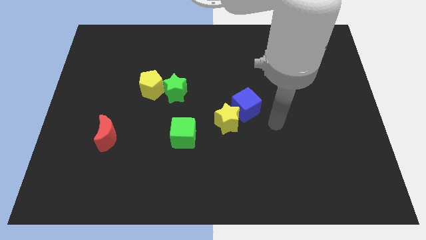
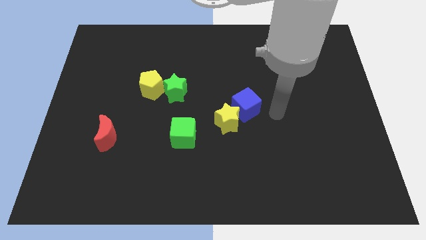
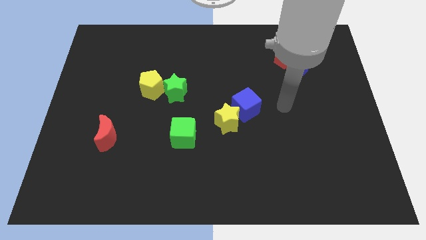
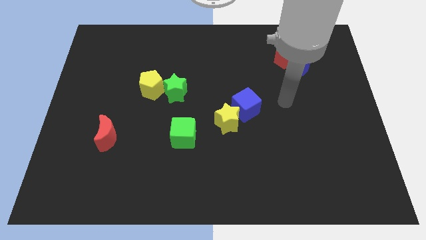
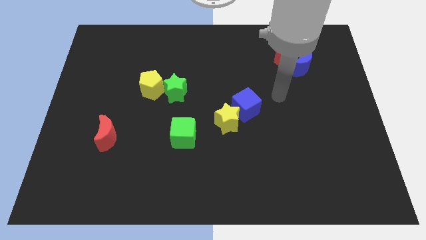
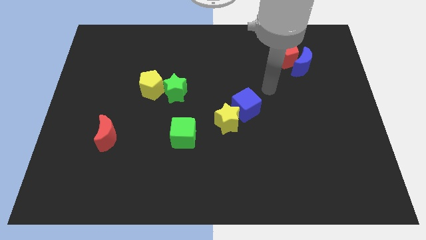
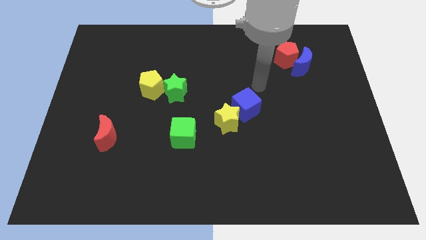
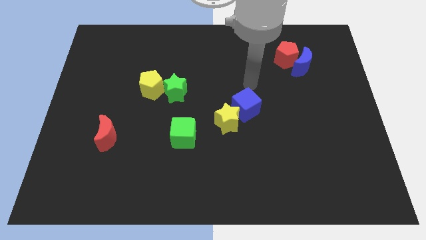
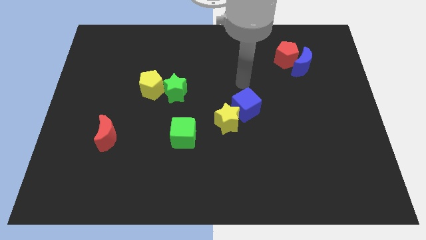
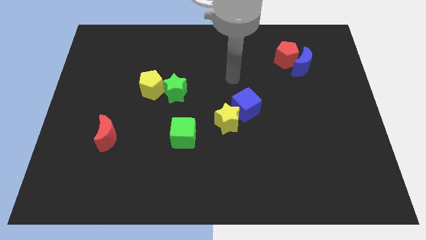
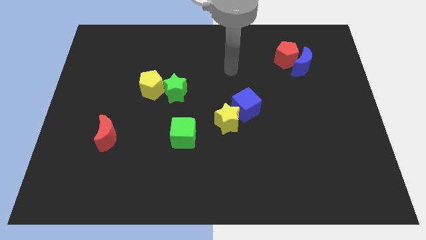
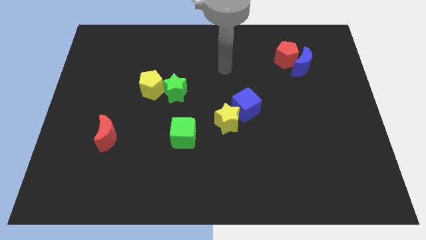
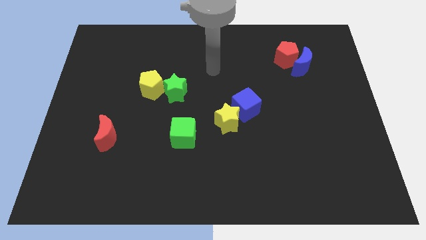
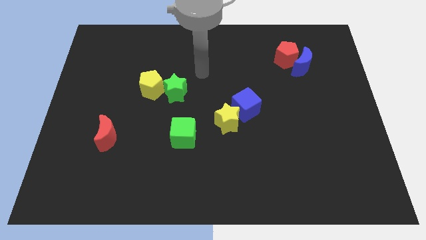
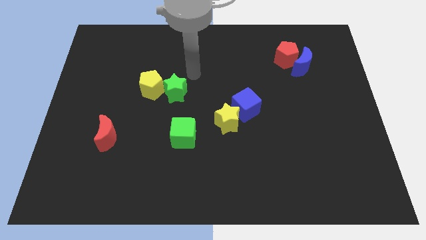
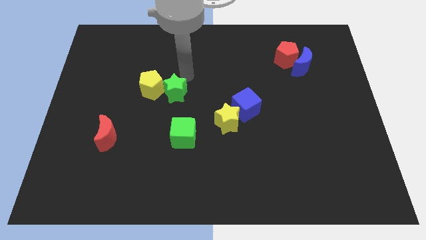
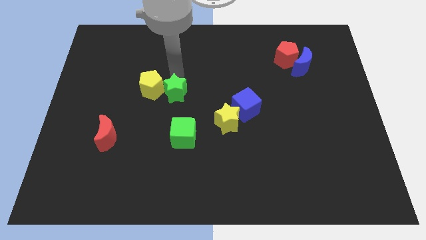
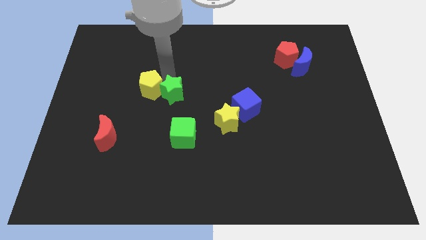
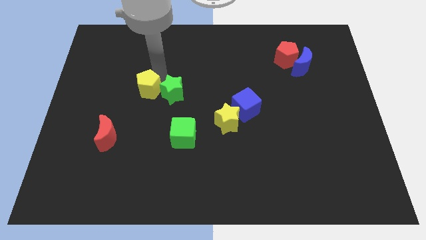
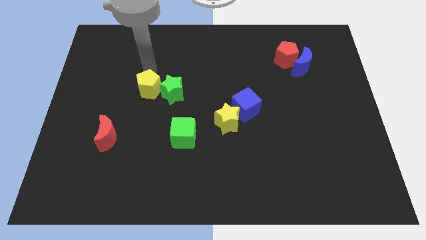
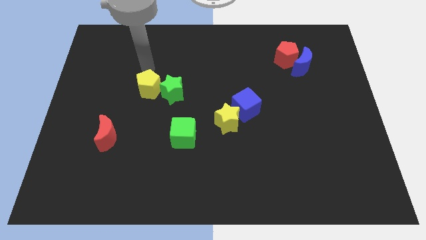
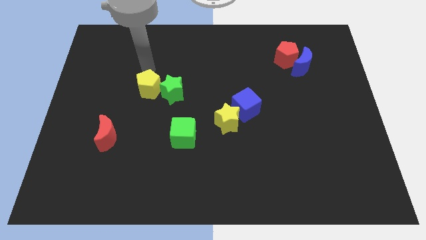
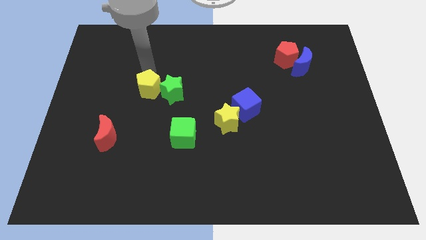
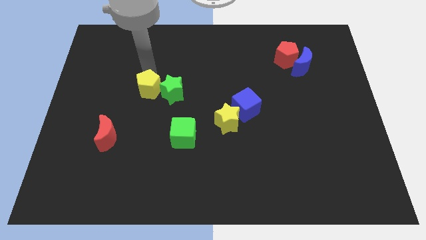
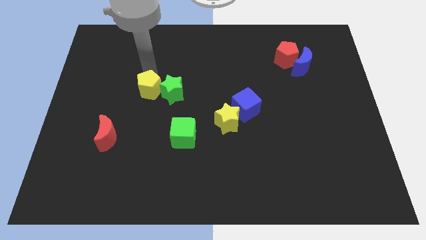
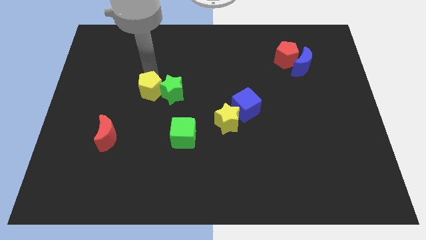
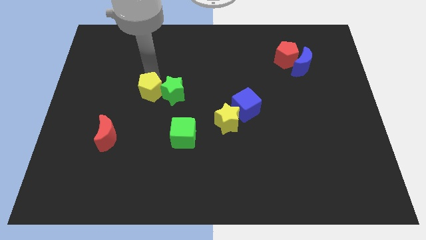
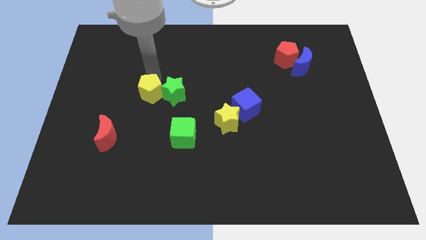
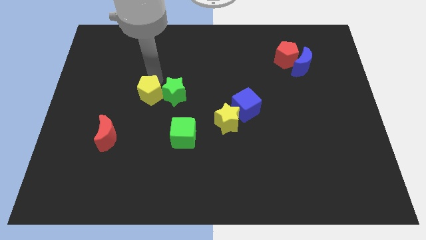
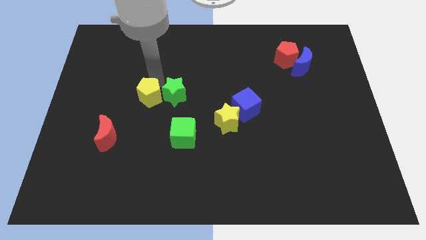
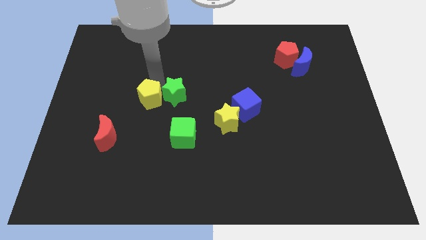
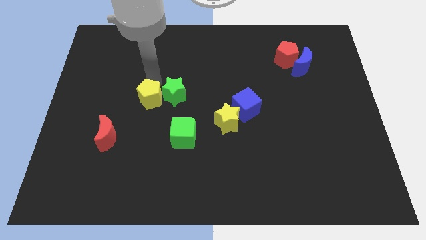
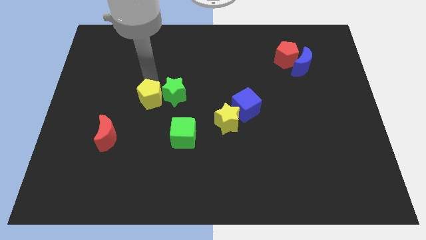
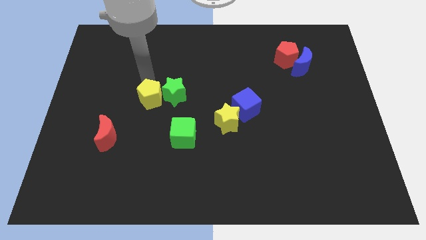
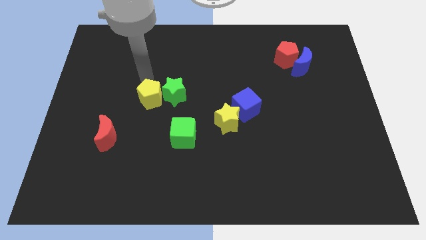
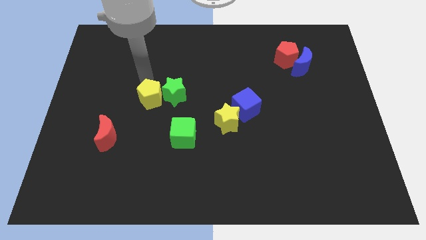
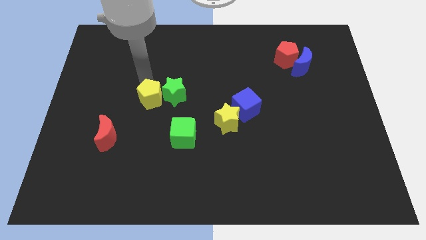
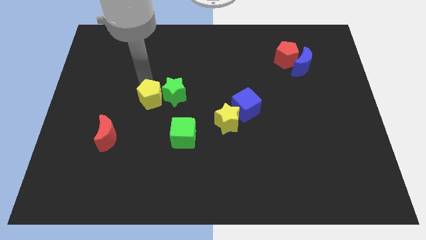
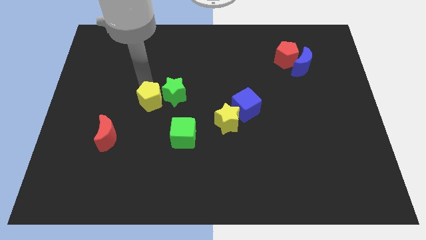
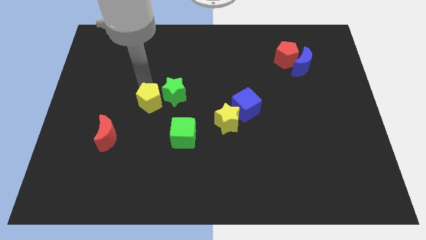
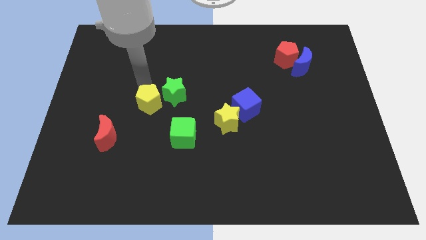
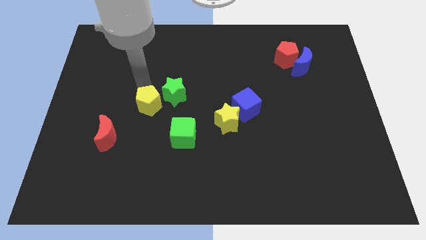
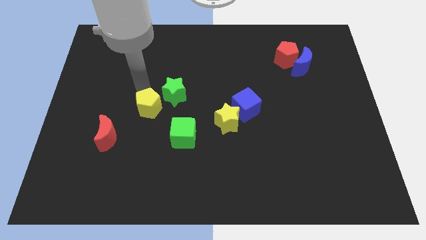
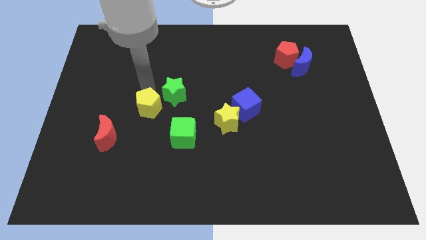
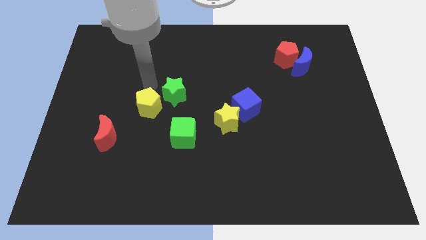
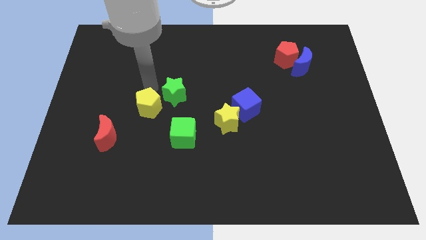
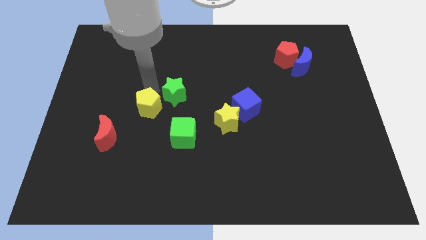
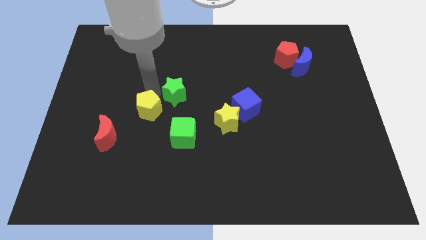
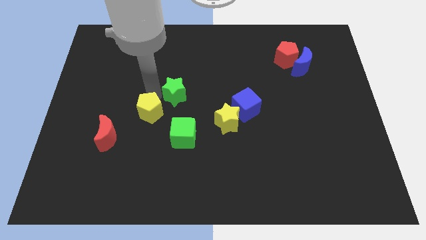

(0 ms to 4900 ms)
push the yellow pentagon somewhat down

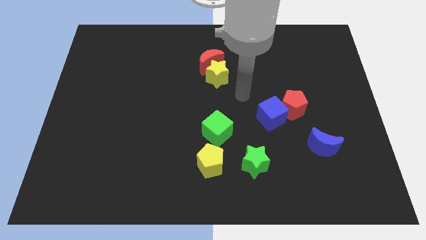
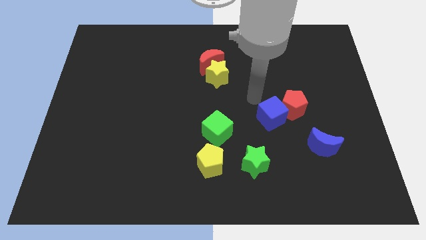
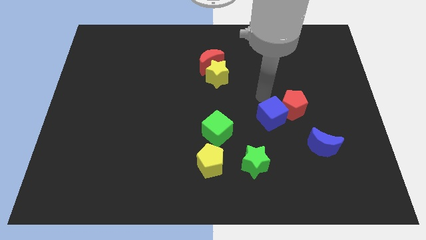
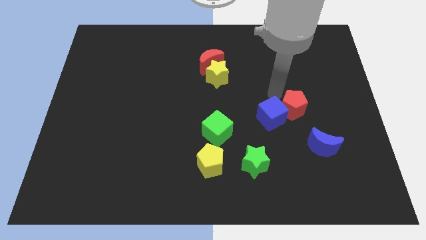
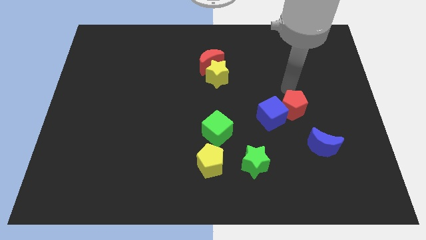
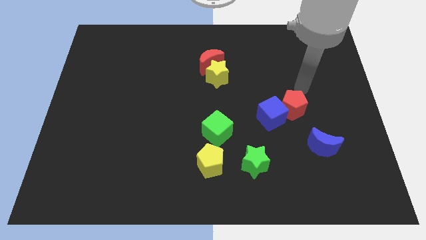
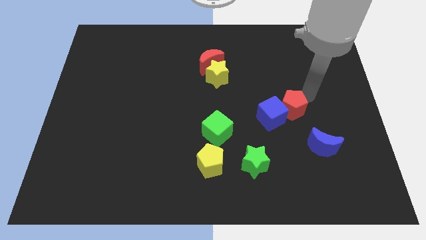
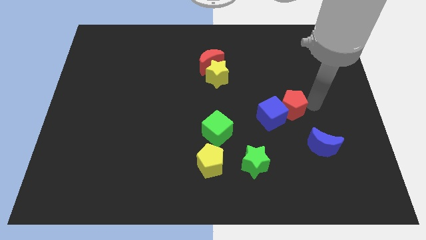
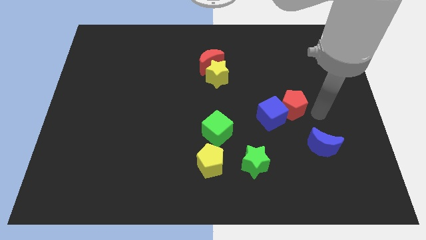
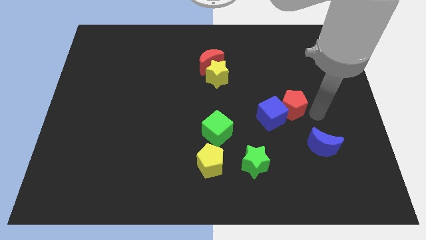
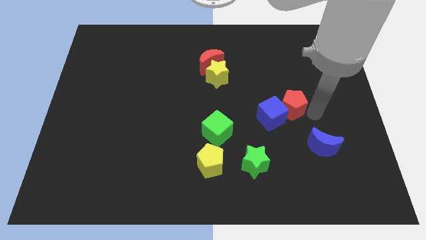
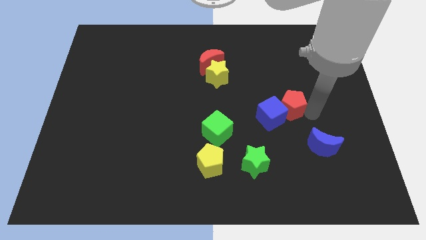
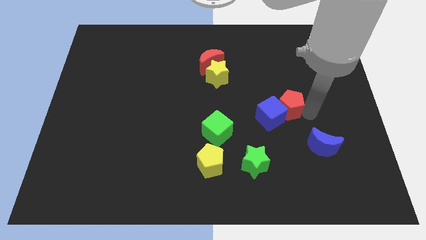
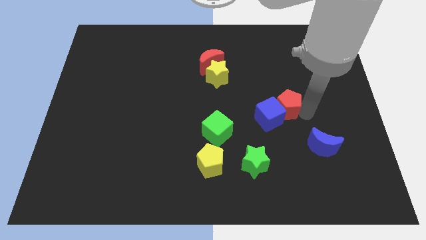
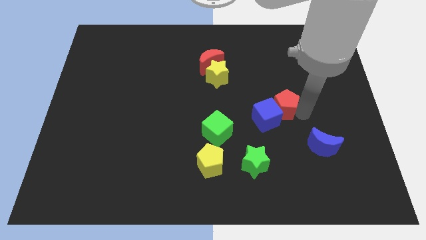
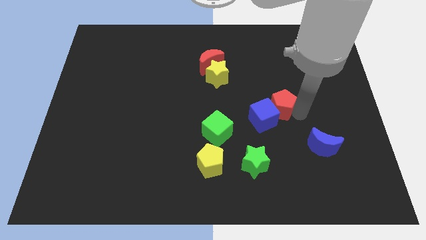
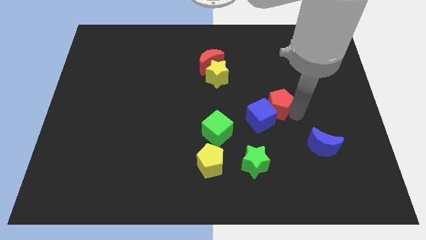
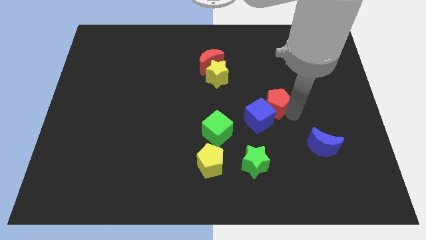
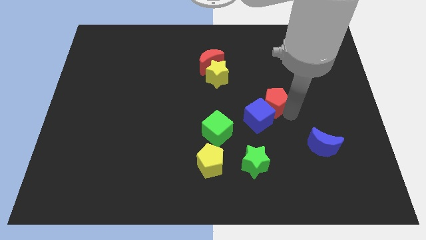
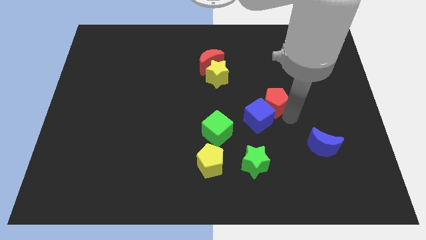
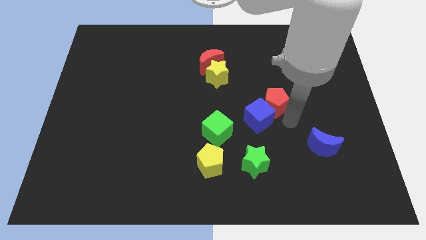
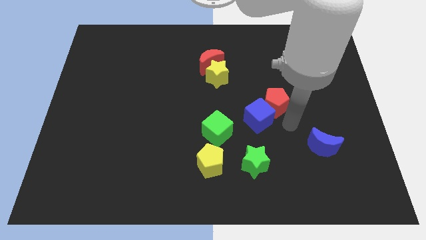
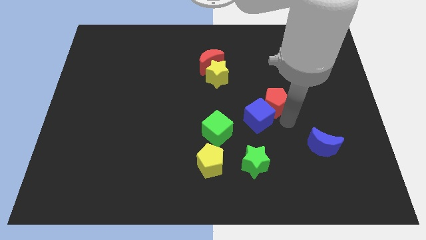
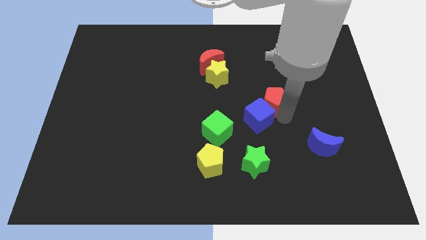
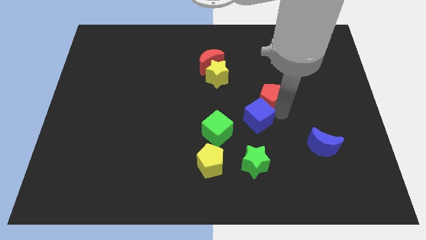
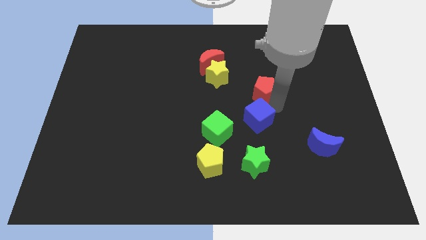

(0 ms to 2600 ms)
push the red pentagon slightly upwards and then left

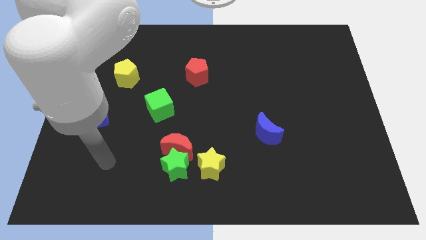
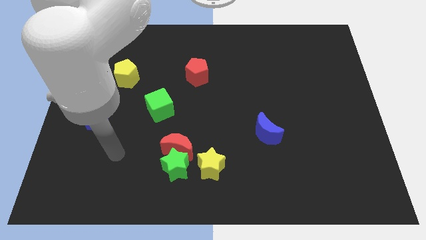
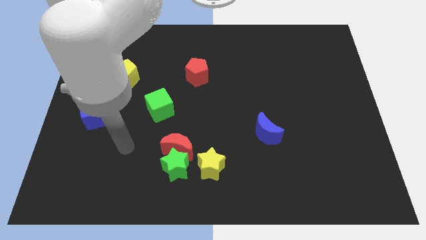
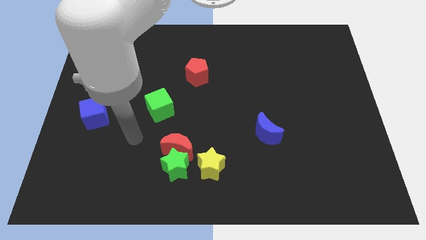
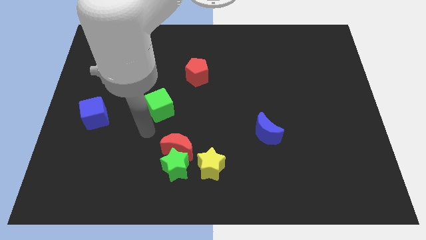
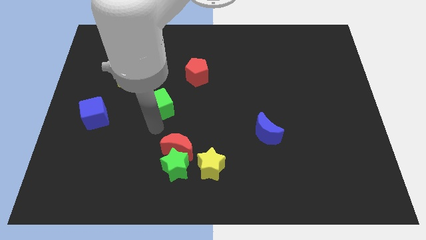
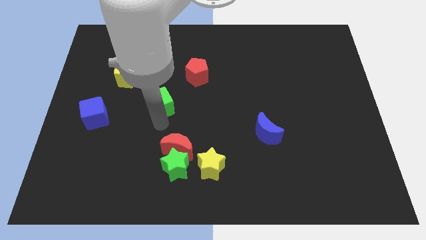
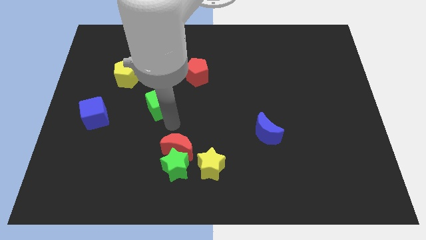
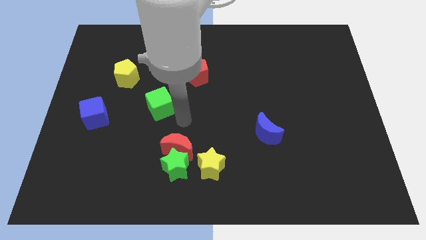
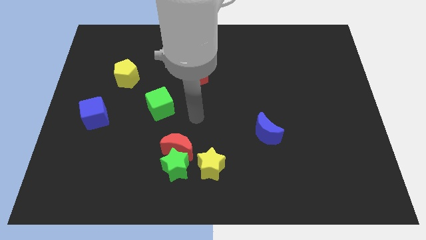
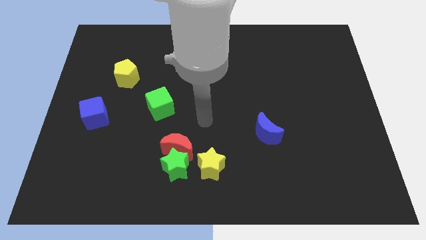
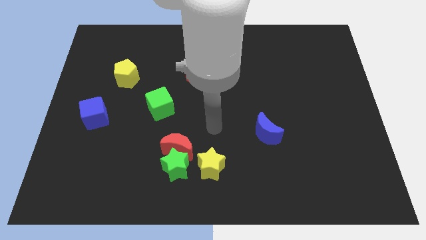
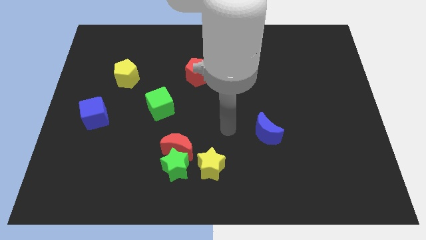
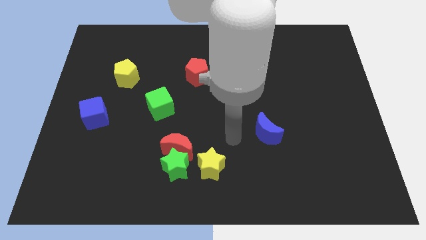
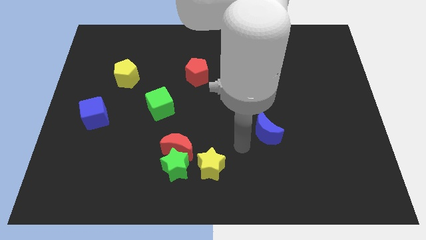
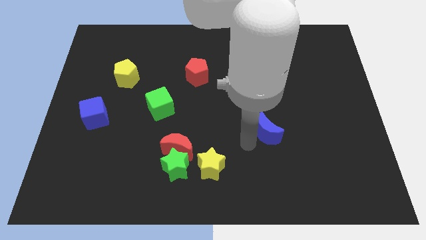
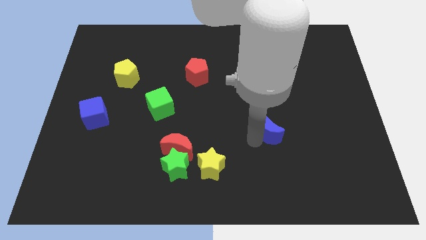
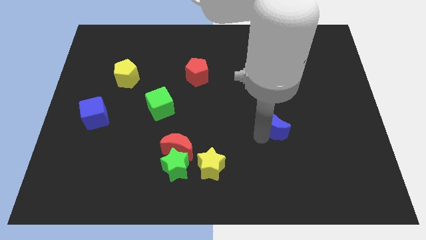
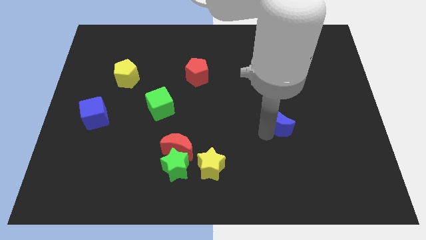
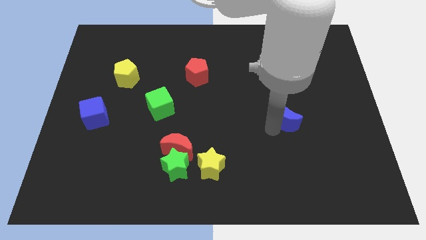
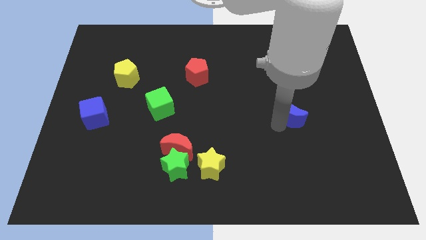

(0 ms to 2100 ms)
push the blue moon slightly up and right diagonally
